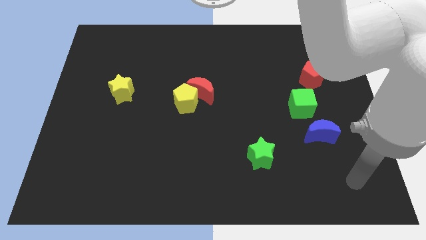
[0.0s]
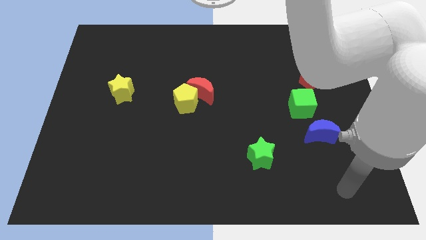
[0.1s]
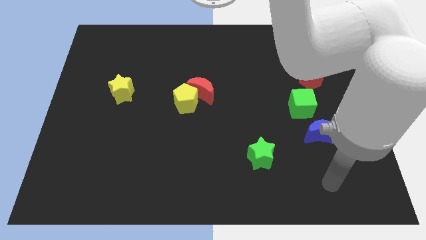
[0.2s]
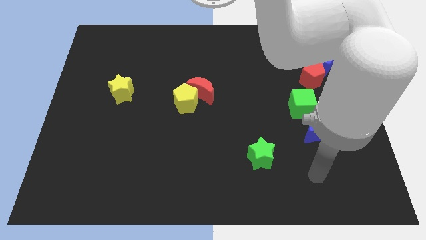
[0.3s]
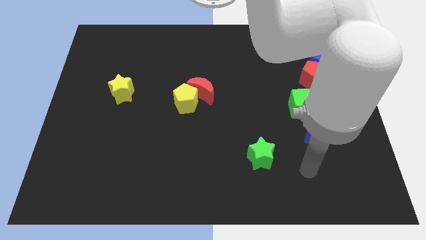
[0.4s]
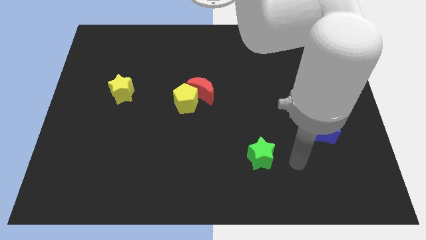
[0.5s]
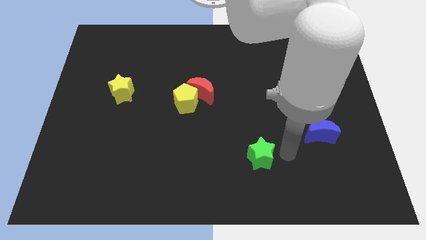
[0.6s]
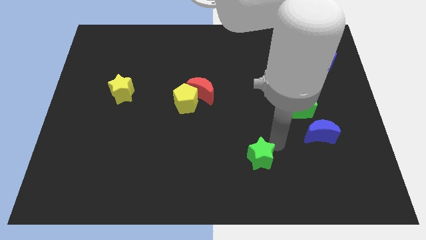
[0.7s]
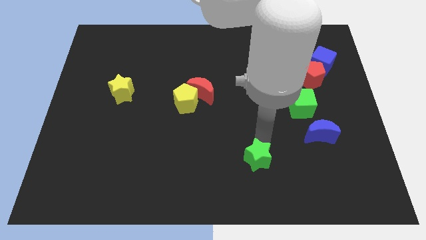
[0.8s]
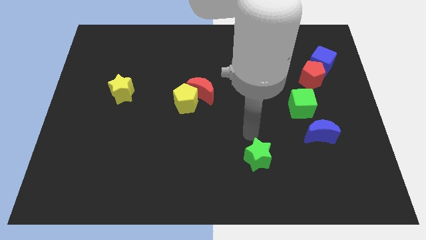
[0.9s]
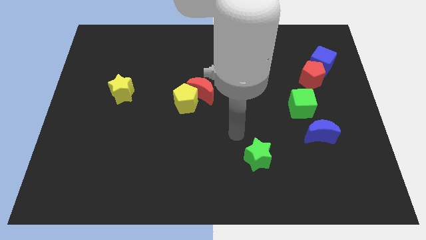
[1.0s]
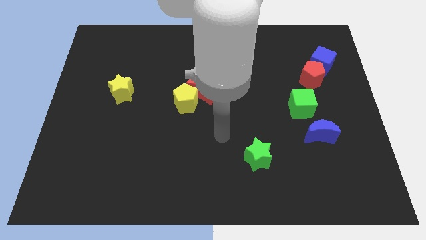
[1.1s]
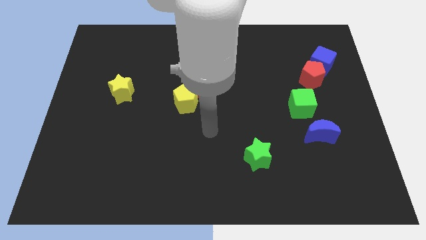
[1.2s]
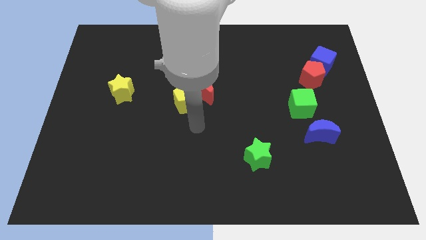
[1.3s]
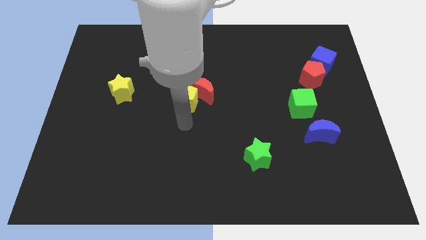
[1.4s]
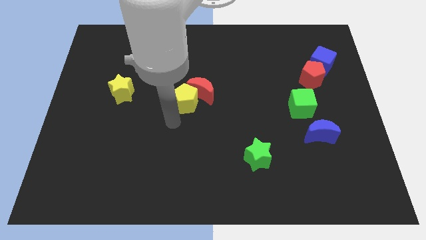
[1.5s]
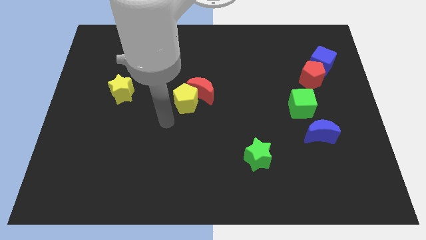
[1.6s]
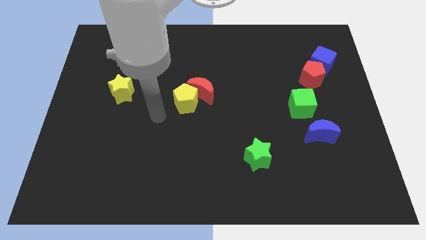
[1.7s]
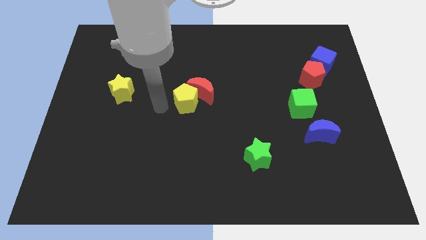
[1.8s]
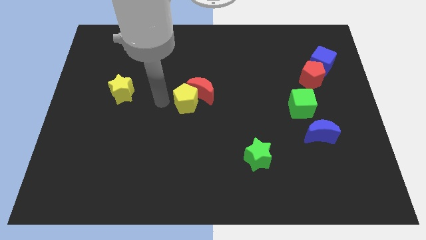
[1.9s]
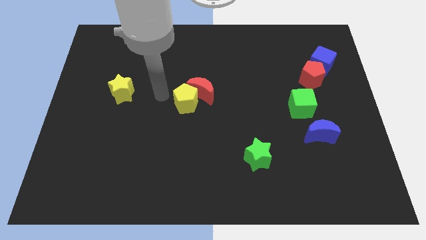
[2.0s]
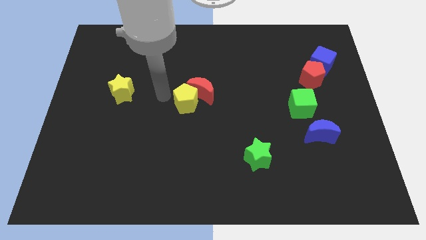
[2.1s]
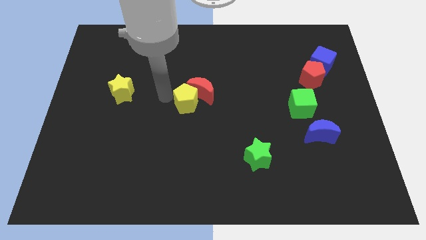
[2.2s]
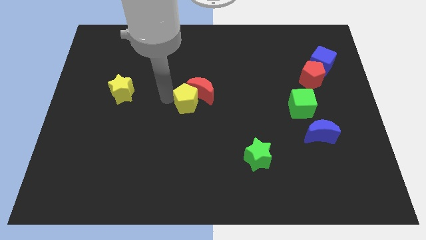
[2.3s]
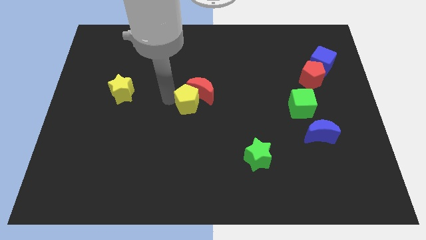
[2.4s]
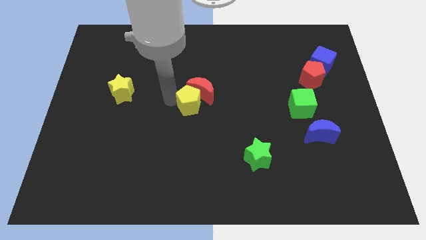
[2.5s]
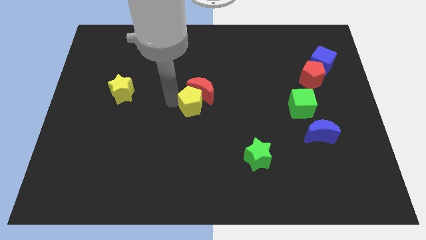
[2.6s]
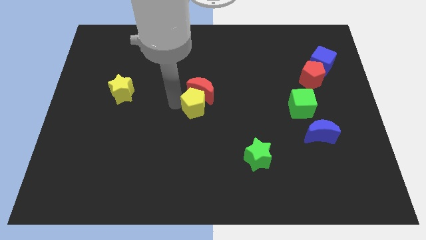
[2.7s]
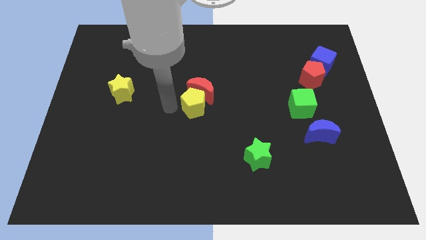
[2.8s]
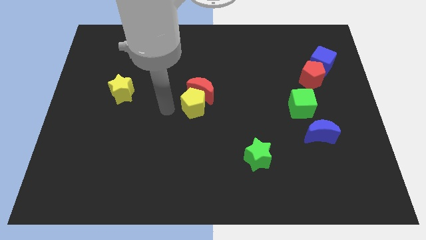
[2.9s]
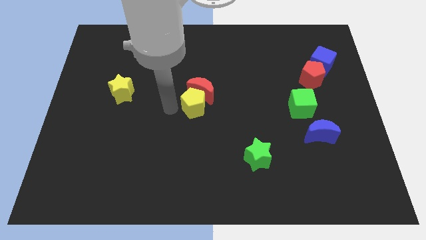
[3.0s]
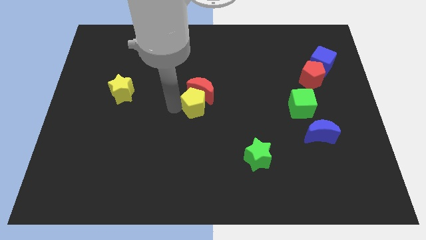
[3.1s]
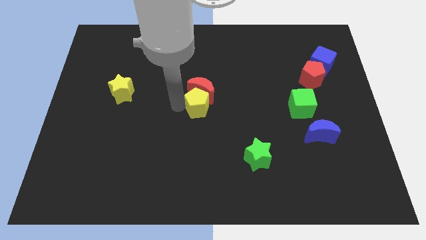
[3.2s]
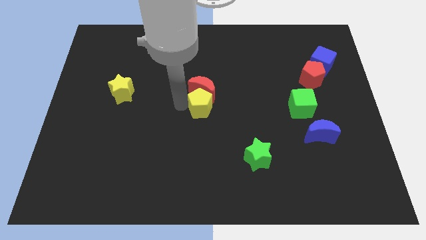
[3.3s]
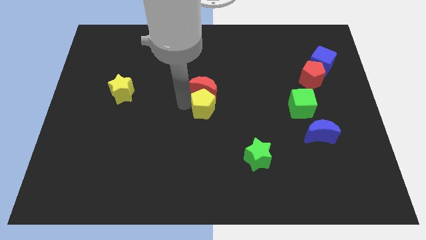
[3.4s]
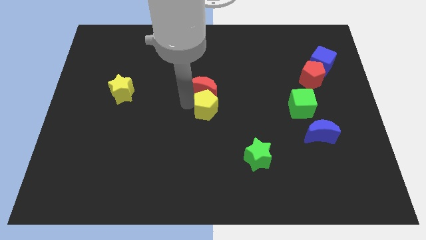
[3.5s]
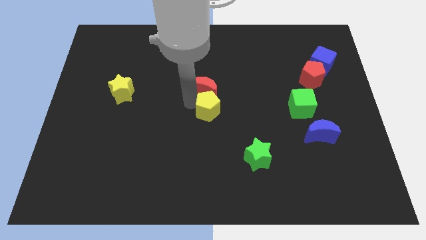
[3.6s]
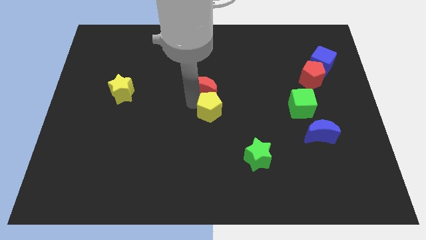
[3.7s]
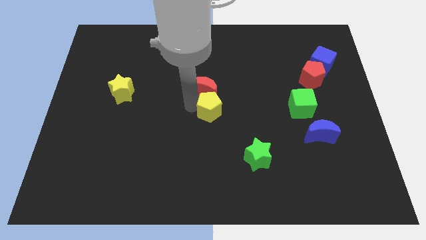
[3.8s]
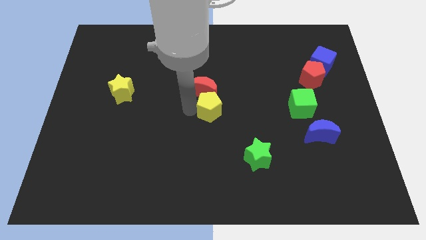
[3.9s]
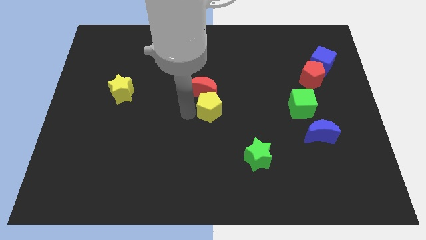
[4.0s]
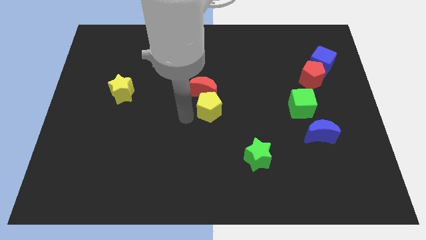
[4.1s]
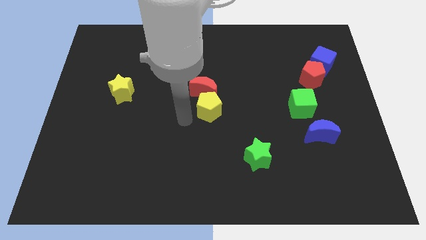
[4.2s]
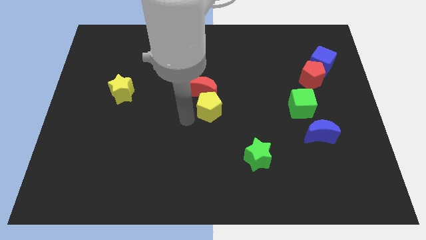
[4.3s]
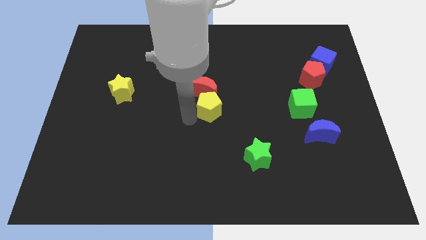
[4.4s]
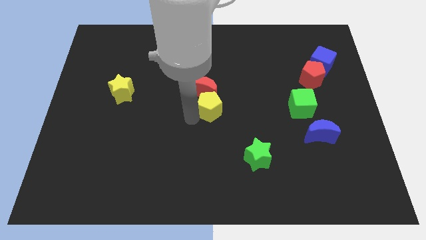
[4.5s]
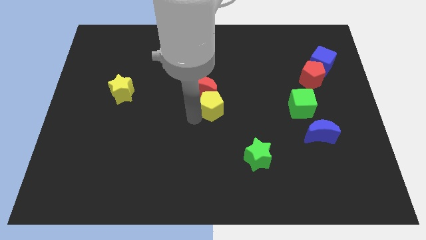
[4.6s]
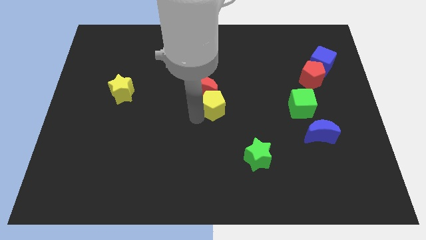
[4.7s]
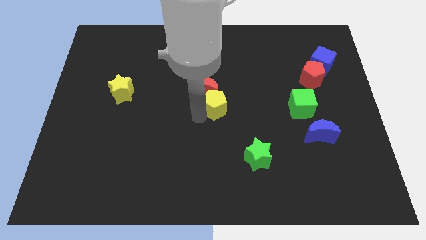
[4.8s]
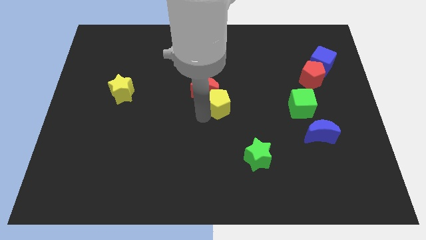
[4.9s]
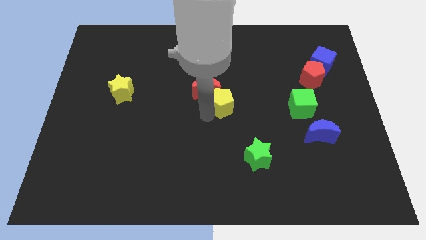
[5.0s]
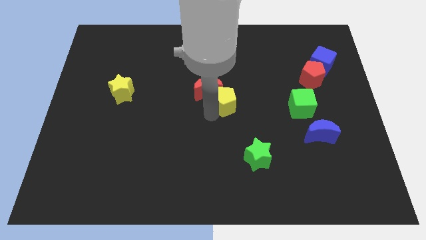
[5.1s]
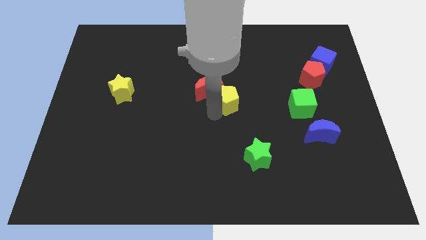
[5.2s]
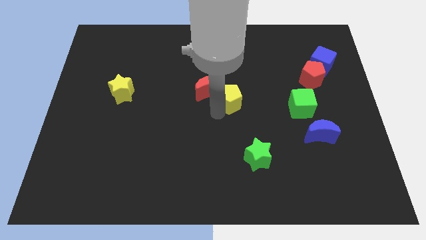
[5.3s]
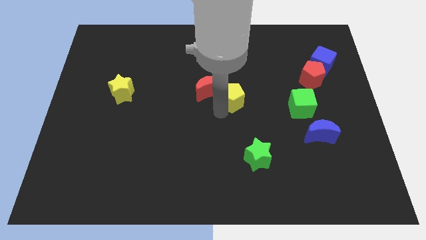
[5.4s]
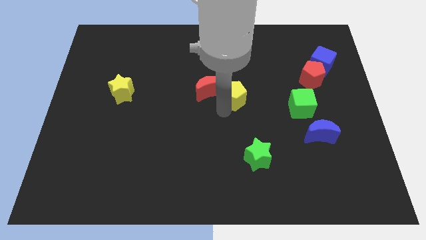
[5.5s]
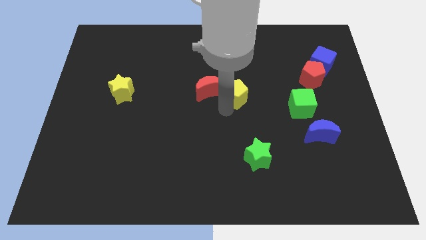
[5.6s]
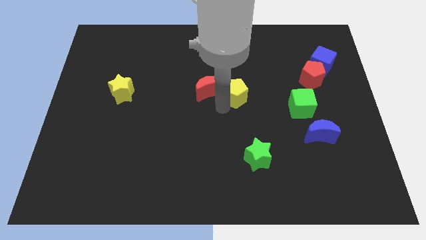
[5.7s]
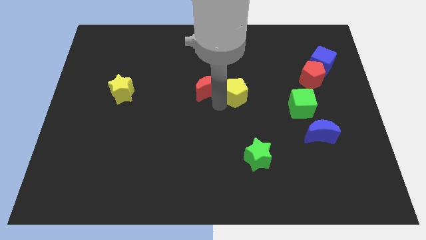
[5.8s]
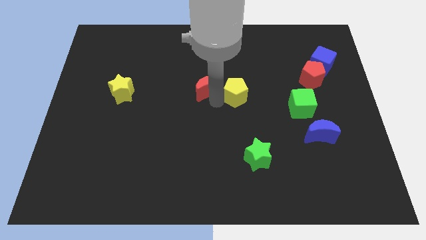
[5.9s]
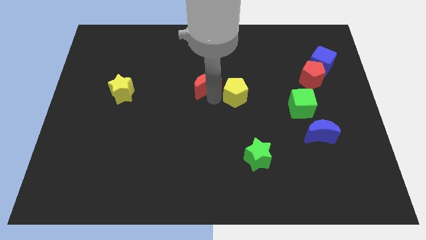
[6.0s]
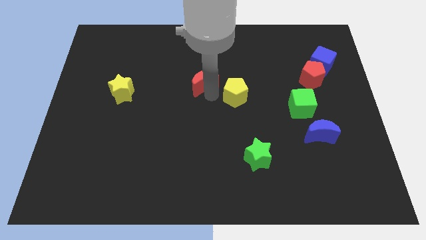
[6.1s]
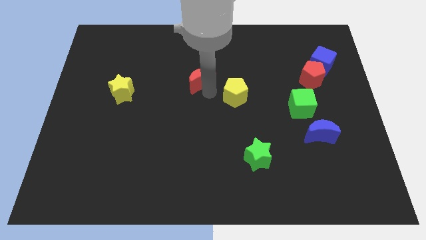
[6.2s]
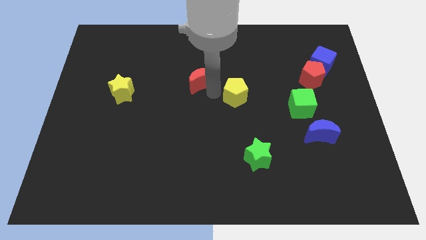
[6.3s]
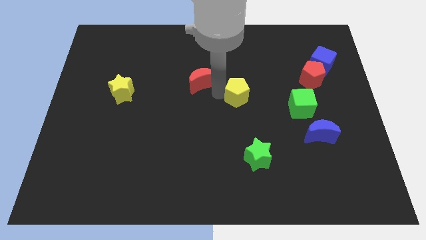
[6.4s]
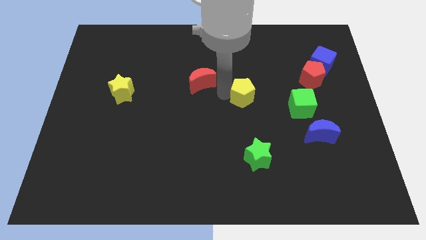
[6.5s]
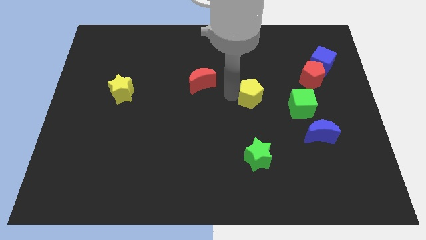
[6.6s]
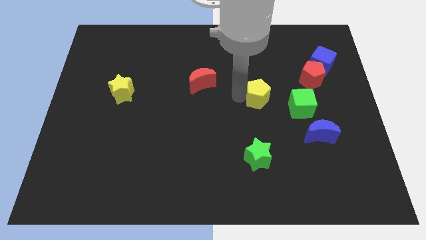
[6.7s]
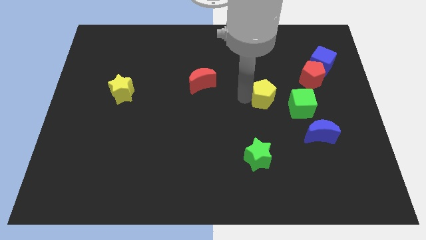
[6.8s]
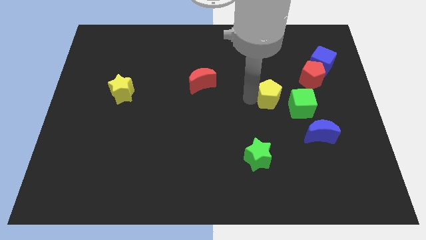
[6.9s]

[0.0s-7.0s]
slide the yellow pentagon to the right

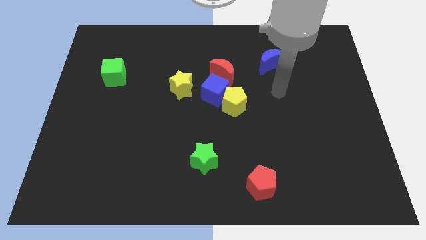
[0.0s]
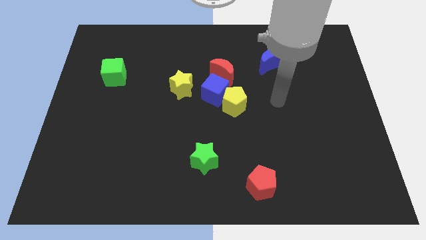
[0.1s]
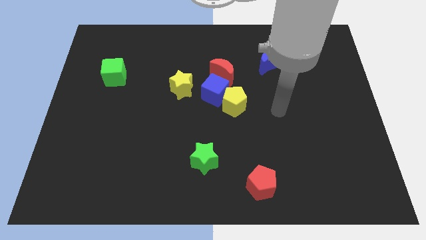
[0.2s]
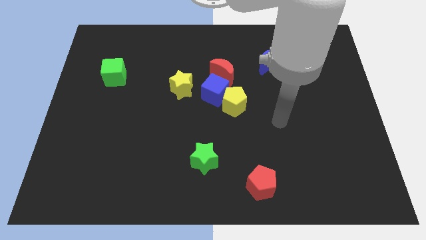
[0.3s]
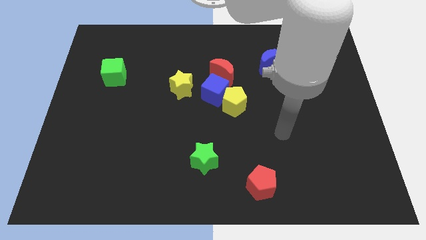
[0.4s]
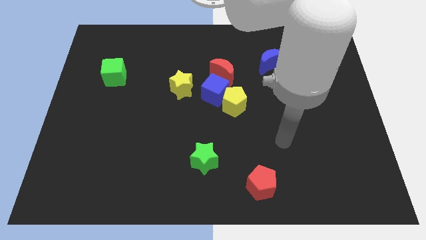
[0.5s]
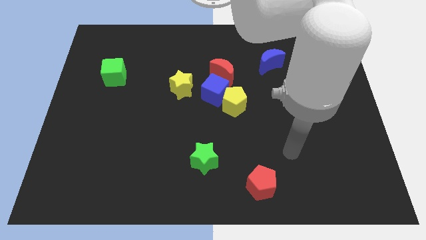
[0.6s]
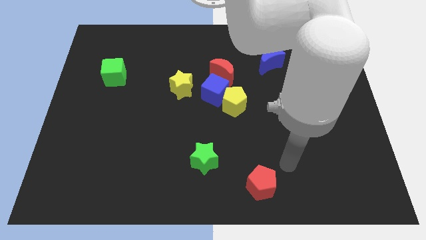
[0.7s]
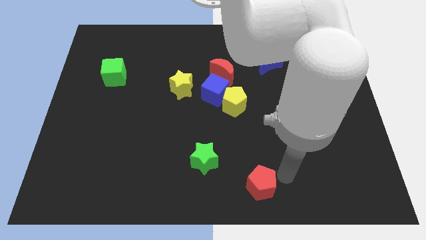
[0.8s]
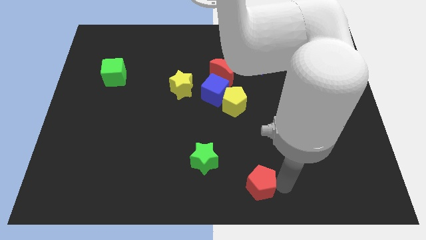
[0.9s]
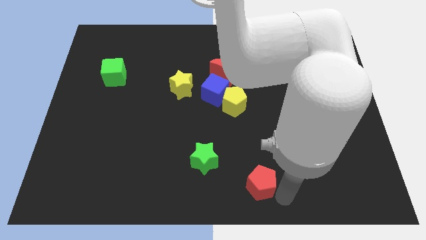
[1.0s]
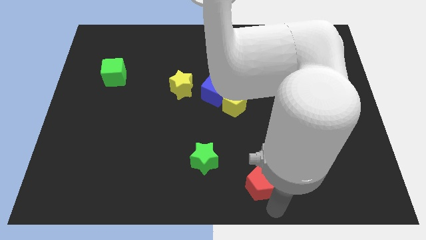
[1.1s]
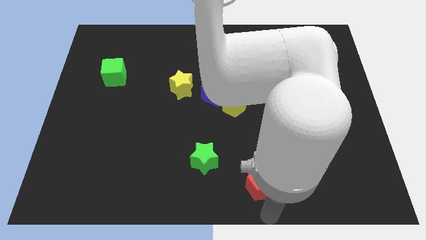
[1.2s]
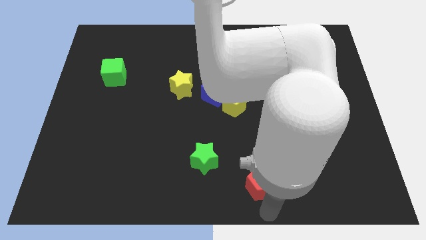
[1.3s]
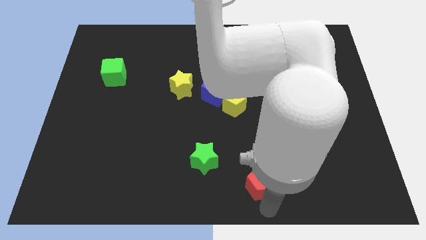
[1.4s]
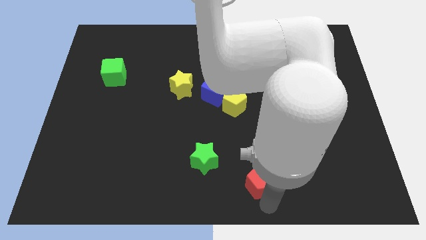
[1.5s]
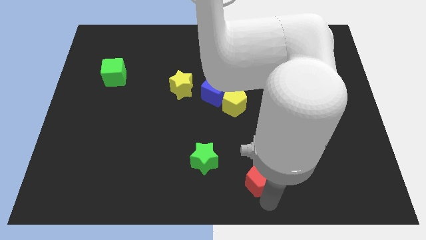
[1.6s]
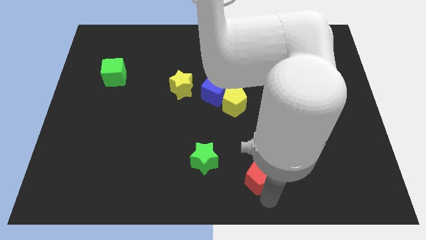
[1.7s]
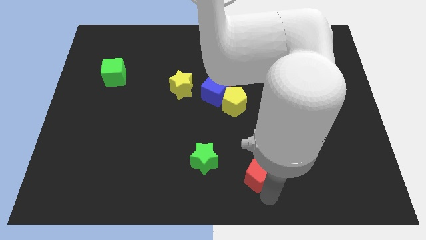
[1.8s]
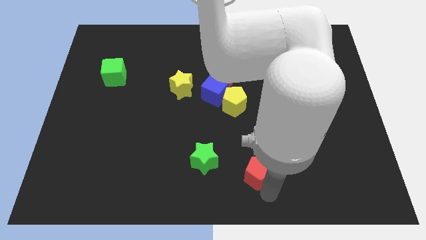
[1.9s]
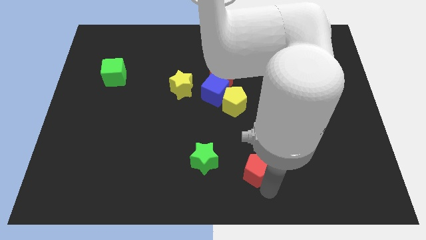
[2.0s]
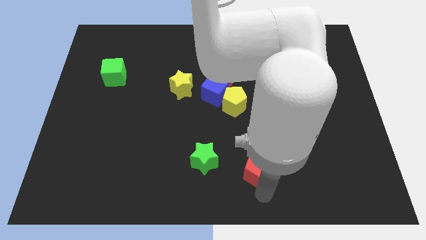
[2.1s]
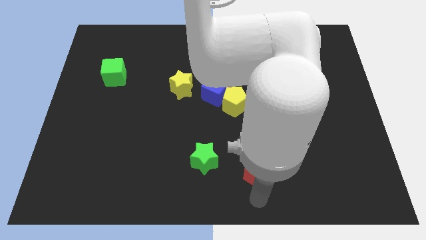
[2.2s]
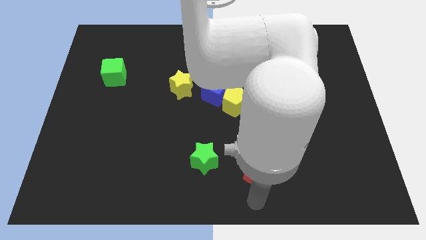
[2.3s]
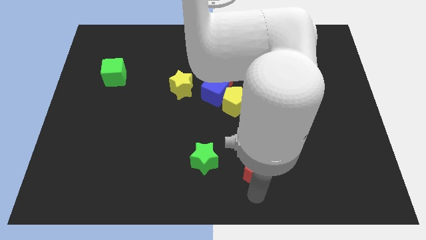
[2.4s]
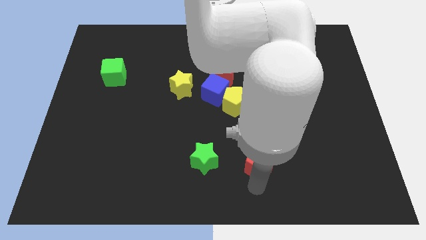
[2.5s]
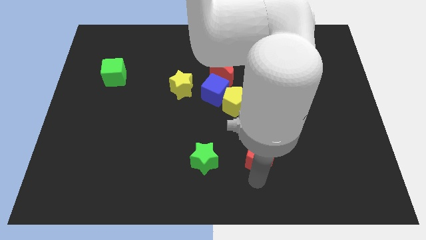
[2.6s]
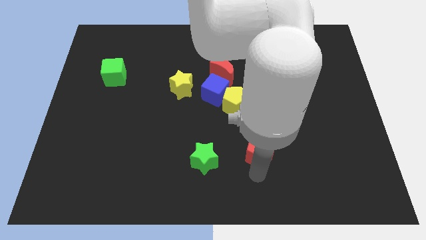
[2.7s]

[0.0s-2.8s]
push the red pentagon upwards a little bit
